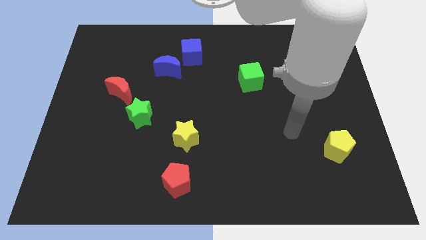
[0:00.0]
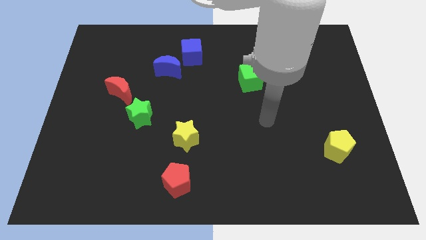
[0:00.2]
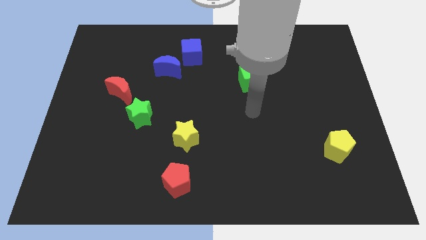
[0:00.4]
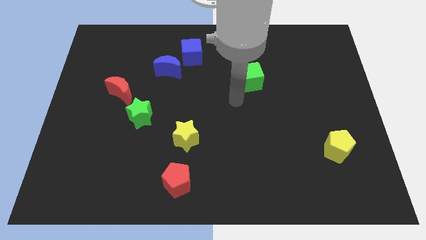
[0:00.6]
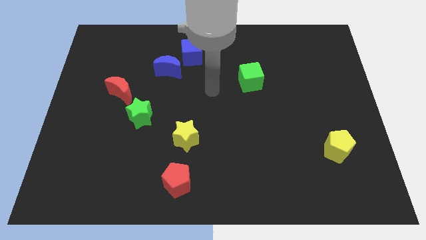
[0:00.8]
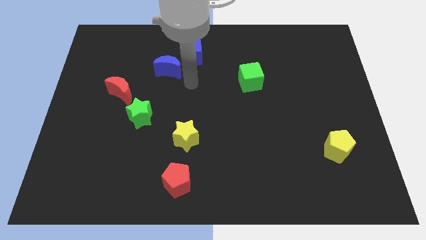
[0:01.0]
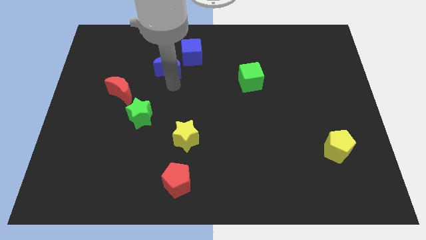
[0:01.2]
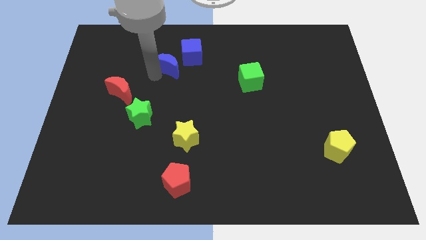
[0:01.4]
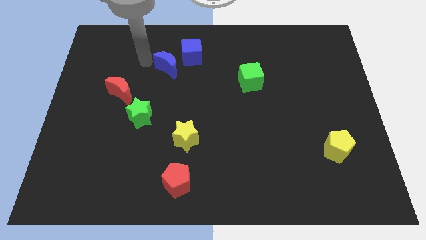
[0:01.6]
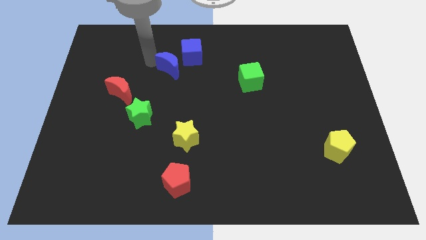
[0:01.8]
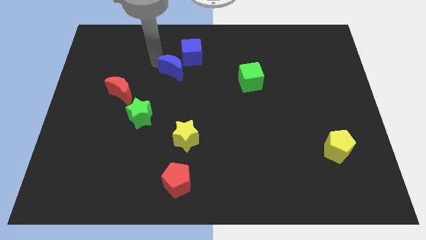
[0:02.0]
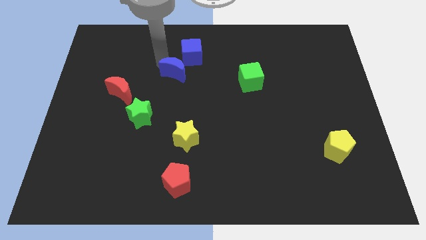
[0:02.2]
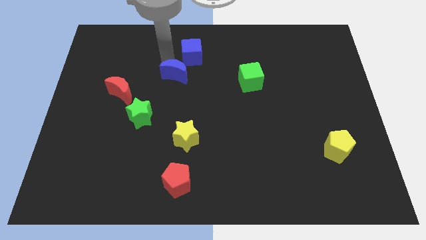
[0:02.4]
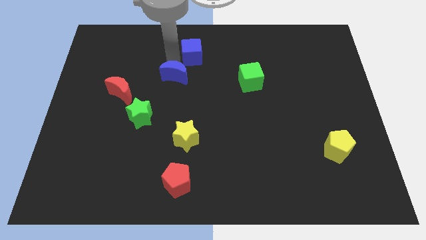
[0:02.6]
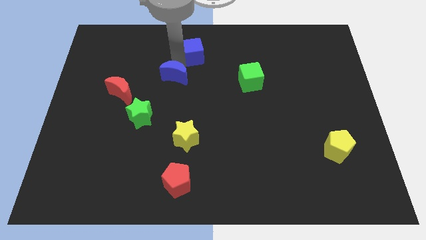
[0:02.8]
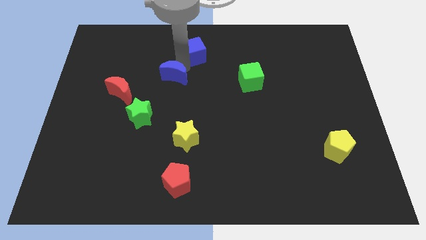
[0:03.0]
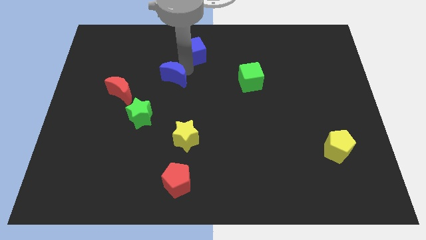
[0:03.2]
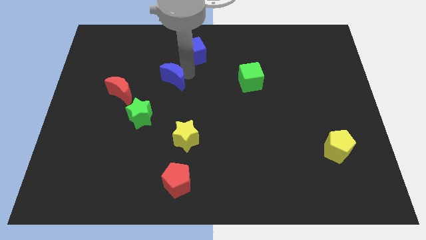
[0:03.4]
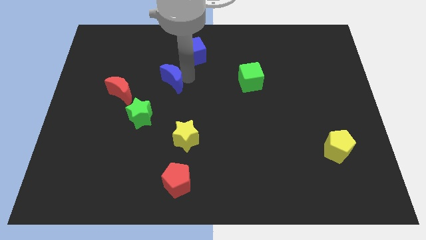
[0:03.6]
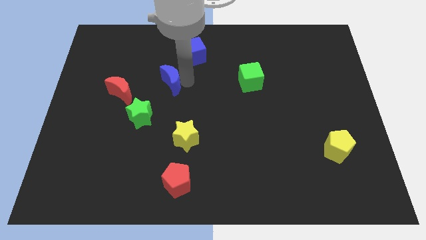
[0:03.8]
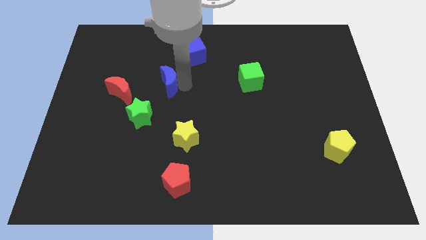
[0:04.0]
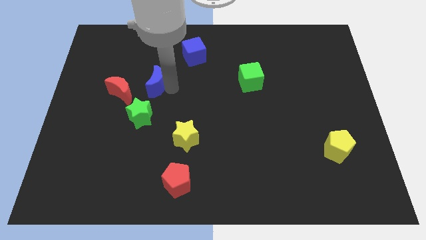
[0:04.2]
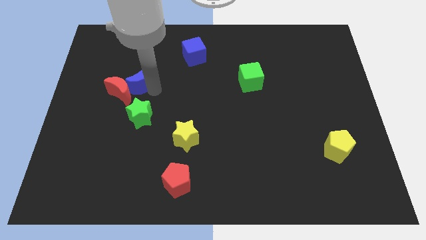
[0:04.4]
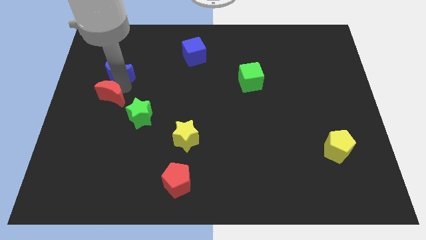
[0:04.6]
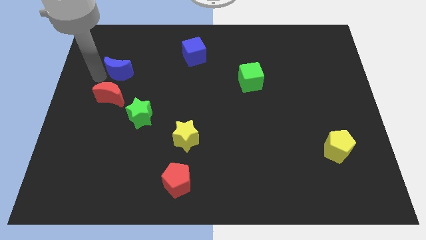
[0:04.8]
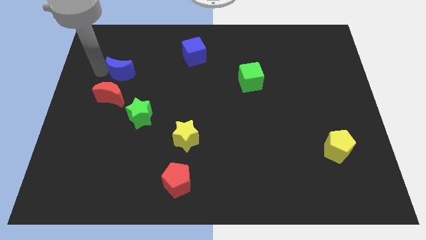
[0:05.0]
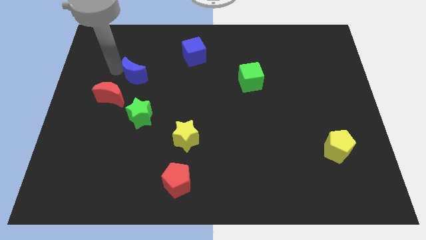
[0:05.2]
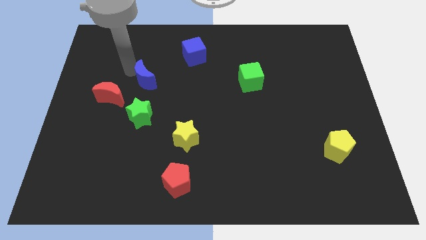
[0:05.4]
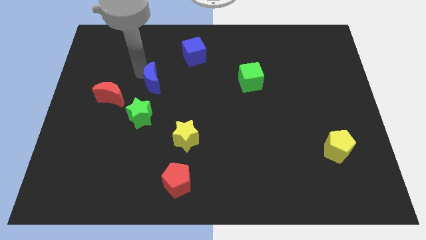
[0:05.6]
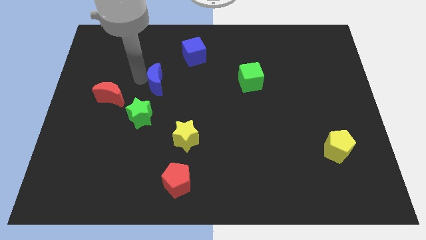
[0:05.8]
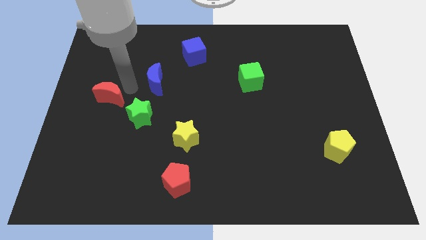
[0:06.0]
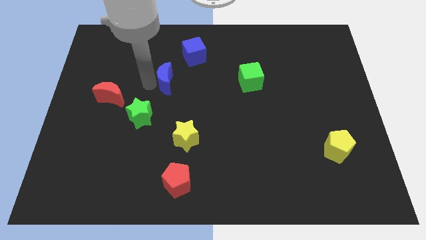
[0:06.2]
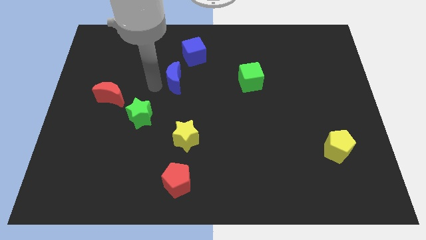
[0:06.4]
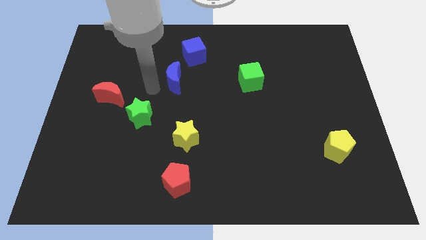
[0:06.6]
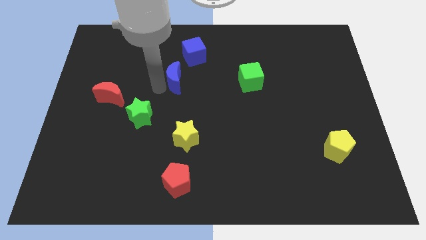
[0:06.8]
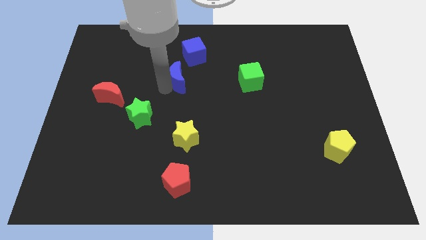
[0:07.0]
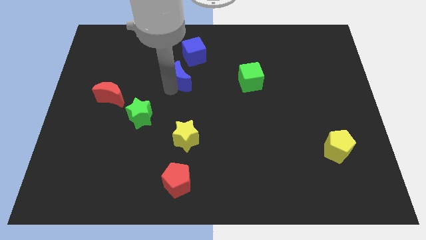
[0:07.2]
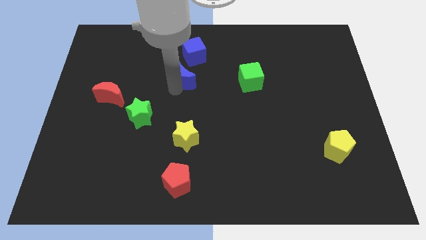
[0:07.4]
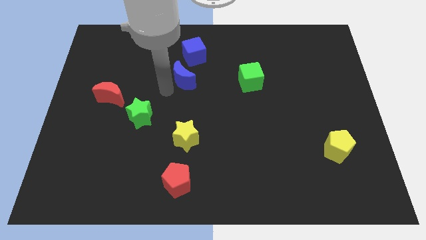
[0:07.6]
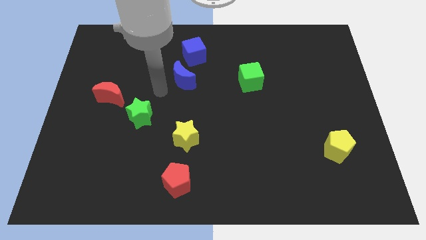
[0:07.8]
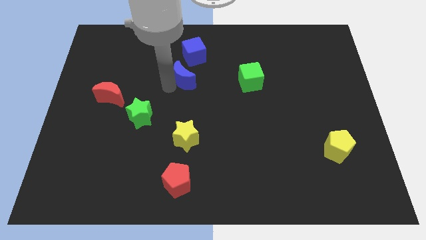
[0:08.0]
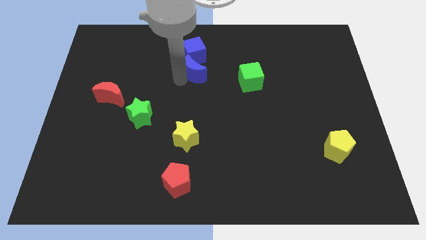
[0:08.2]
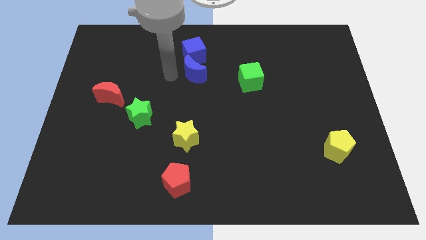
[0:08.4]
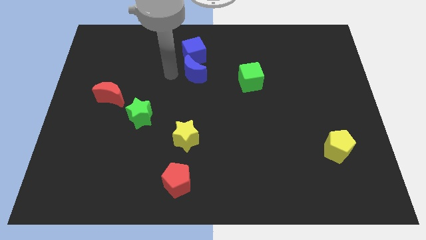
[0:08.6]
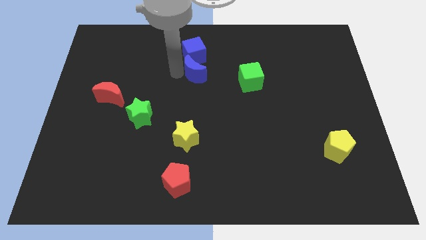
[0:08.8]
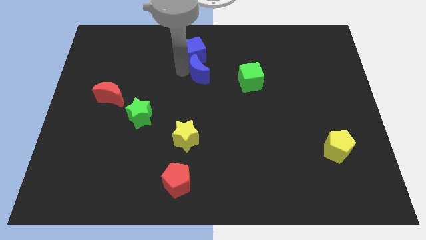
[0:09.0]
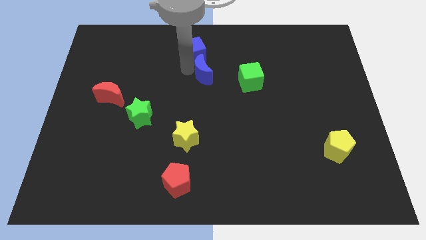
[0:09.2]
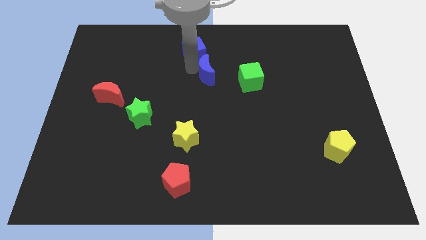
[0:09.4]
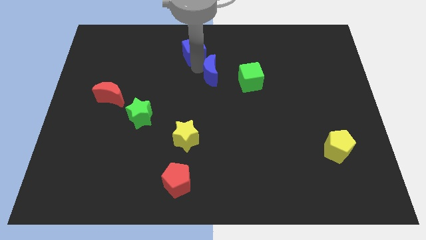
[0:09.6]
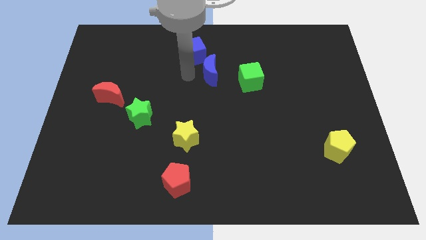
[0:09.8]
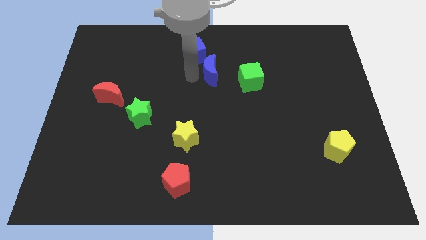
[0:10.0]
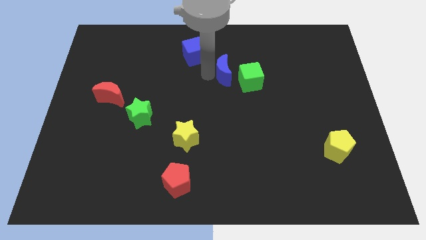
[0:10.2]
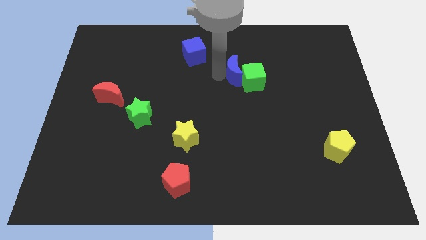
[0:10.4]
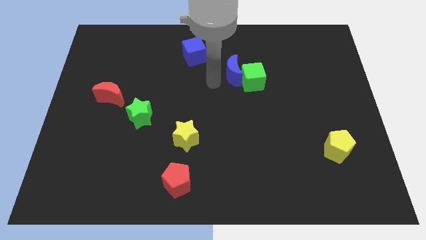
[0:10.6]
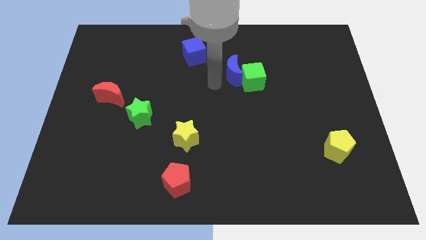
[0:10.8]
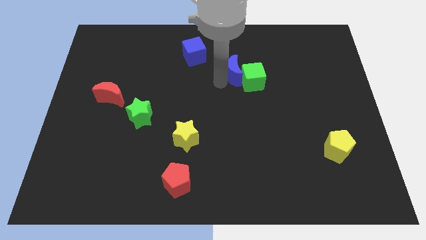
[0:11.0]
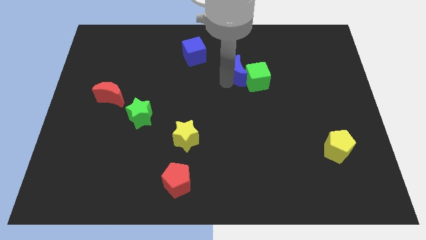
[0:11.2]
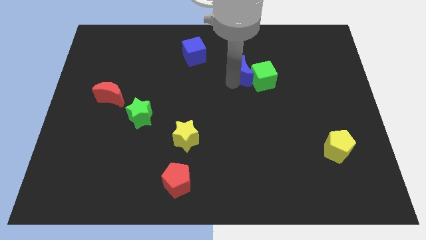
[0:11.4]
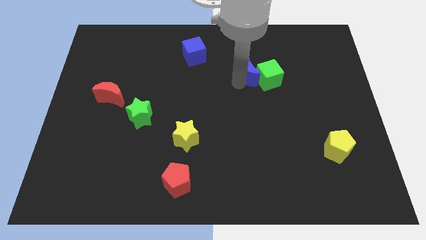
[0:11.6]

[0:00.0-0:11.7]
move the blue moon to the right

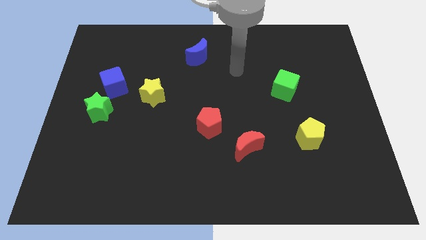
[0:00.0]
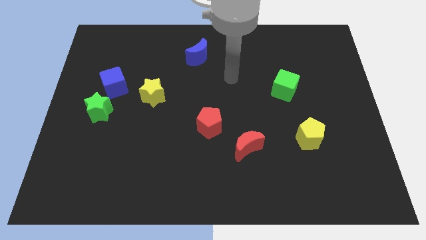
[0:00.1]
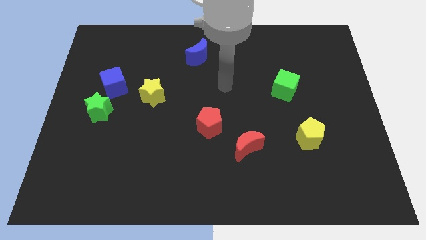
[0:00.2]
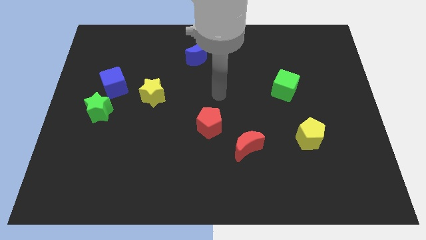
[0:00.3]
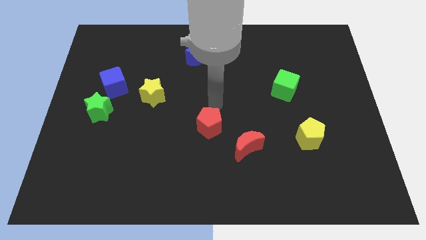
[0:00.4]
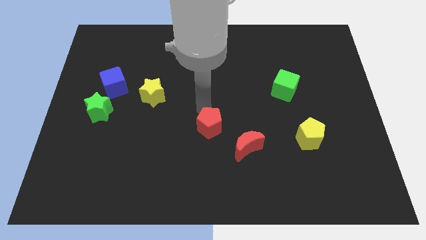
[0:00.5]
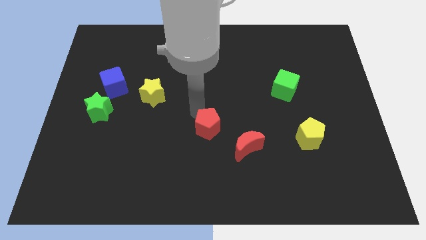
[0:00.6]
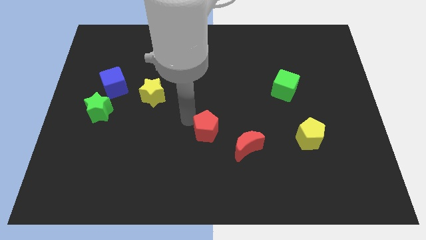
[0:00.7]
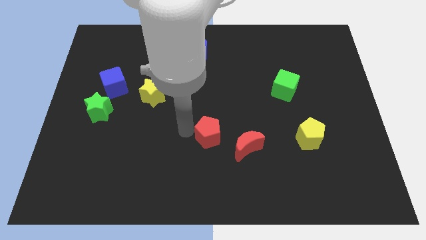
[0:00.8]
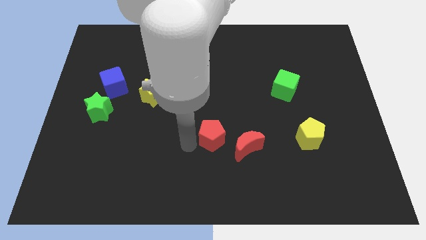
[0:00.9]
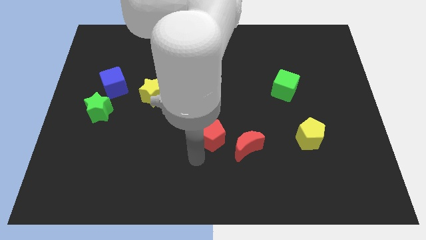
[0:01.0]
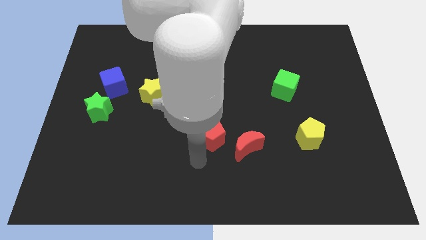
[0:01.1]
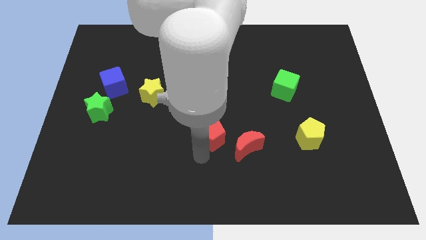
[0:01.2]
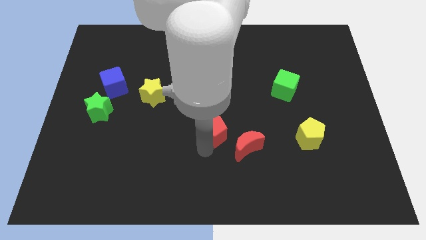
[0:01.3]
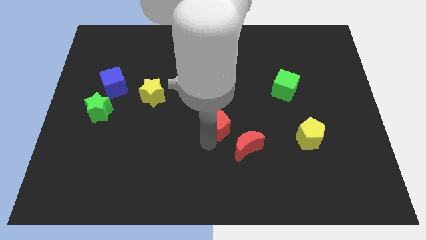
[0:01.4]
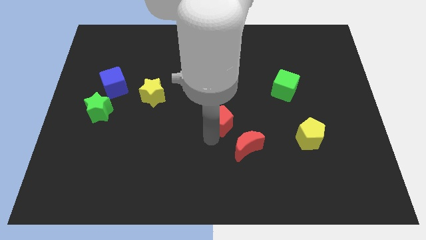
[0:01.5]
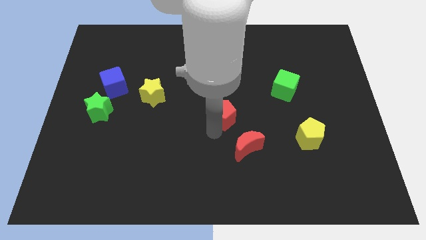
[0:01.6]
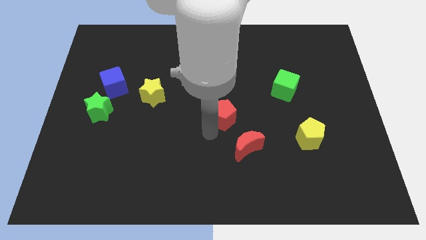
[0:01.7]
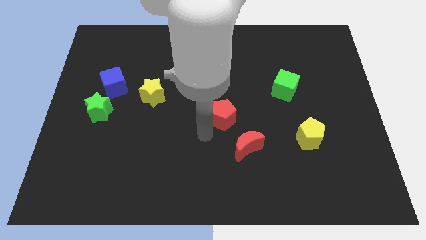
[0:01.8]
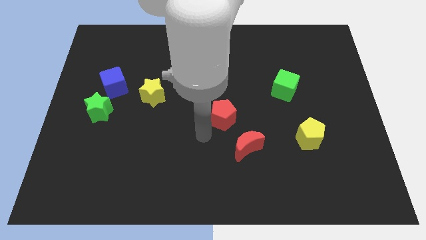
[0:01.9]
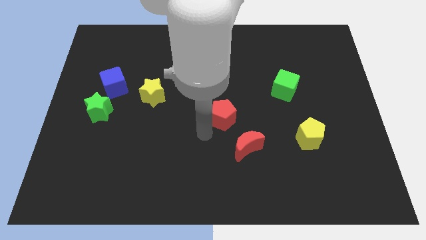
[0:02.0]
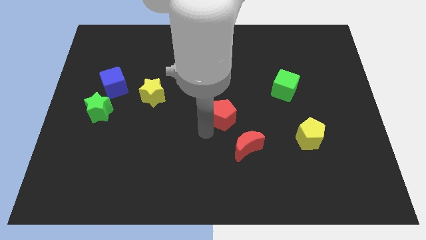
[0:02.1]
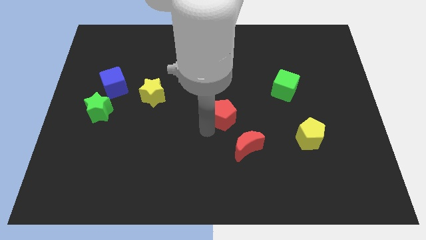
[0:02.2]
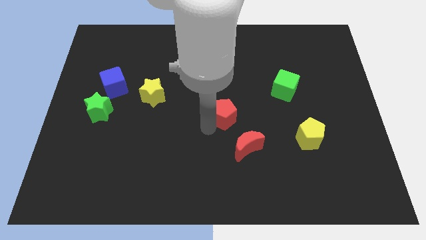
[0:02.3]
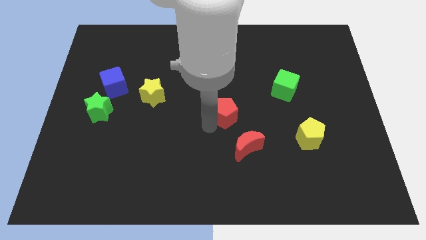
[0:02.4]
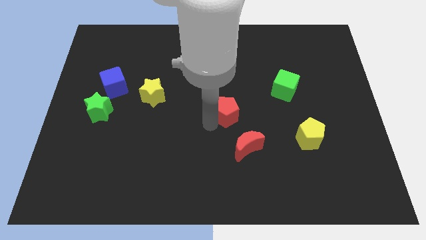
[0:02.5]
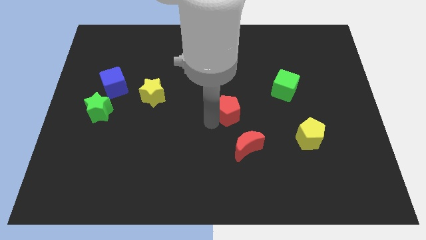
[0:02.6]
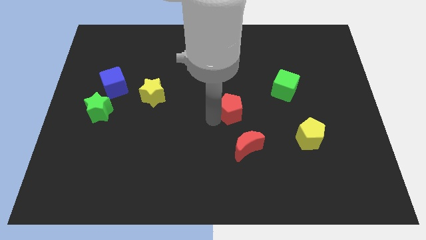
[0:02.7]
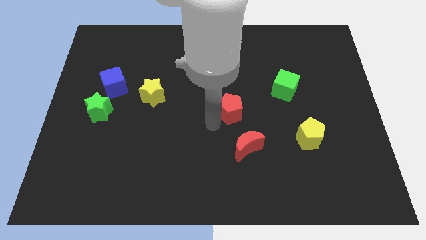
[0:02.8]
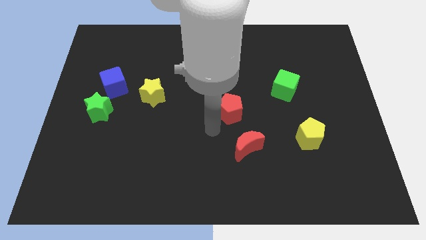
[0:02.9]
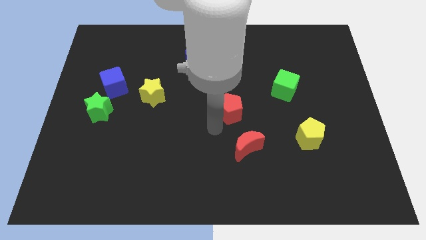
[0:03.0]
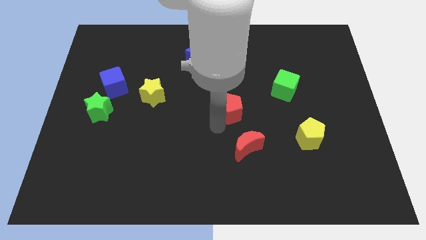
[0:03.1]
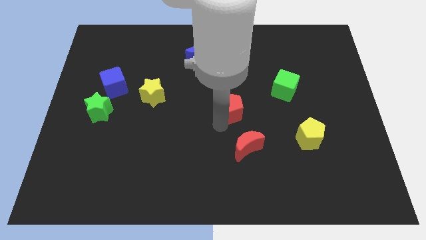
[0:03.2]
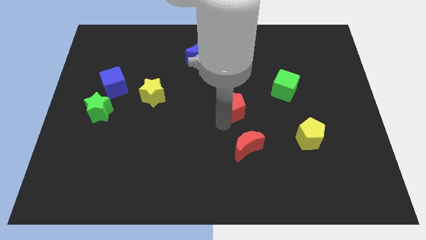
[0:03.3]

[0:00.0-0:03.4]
slide the red pentagon diagonally upwards and right a little bit
